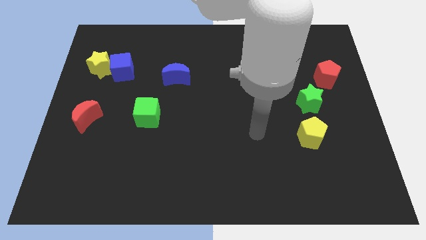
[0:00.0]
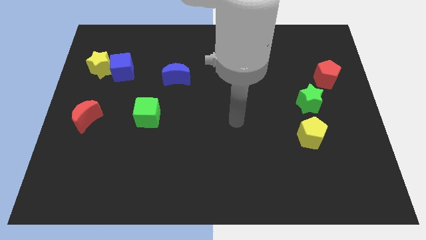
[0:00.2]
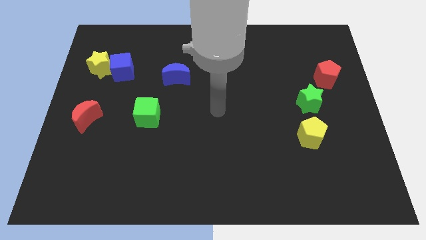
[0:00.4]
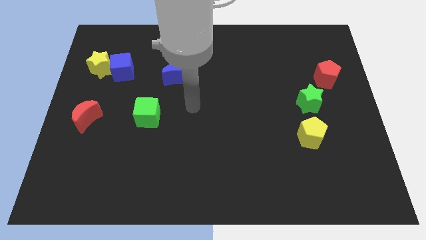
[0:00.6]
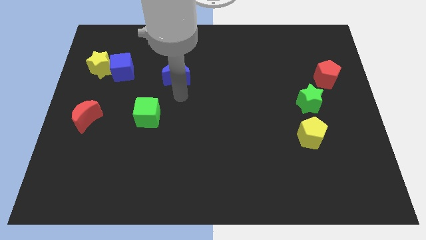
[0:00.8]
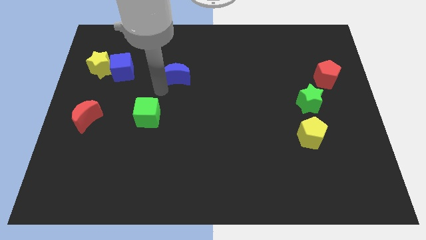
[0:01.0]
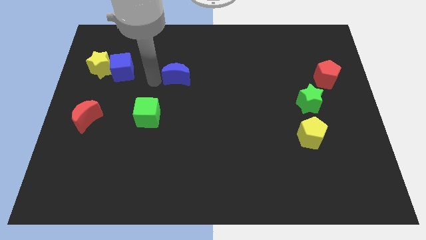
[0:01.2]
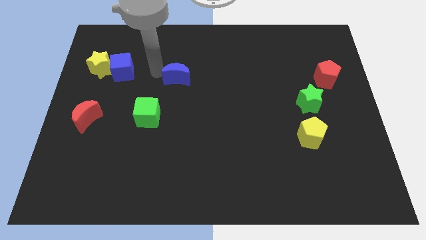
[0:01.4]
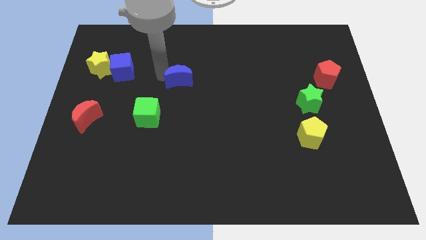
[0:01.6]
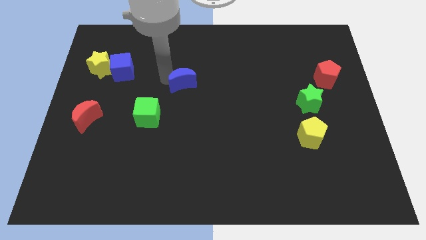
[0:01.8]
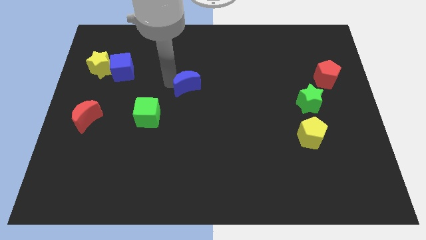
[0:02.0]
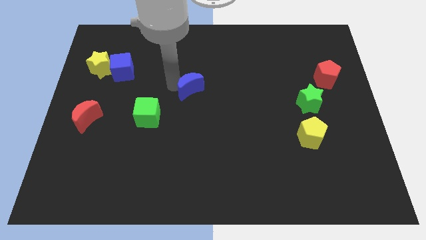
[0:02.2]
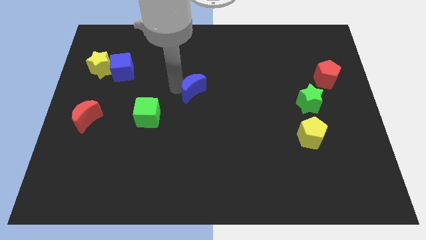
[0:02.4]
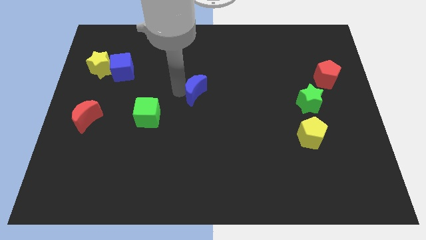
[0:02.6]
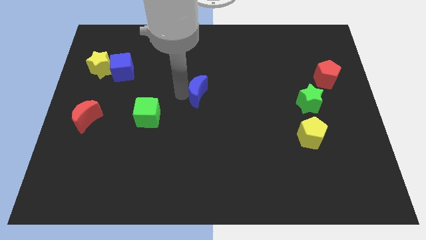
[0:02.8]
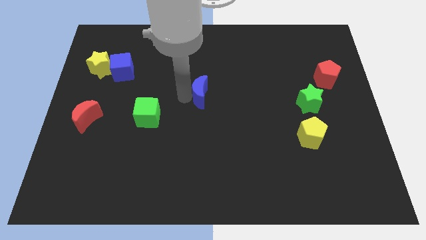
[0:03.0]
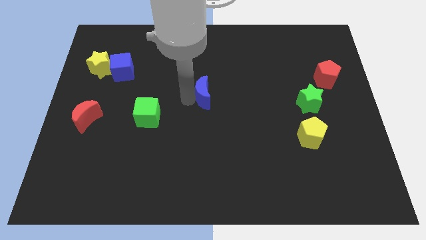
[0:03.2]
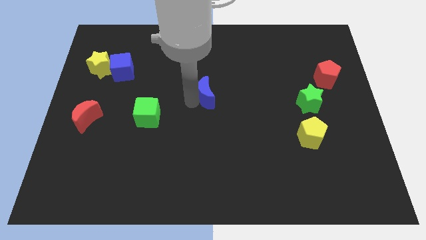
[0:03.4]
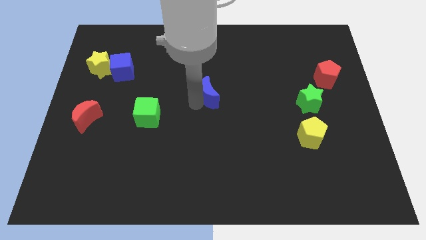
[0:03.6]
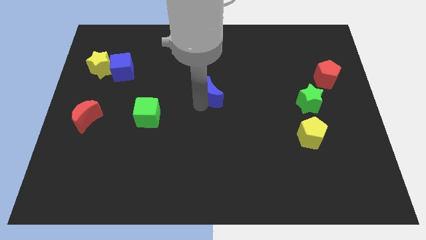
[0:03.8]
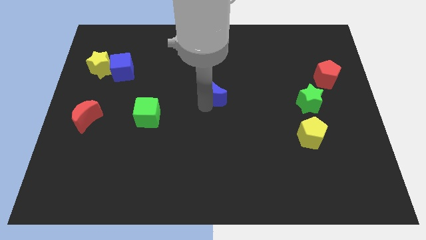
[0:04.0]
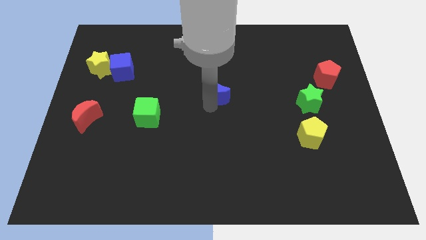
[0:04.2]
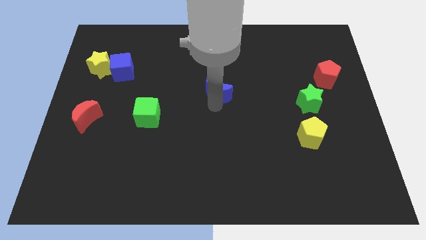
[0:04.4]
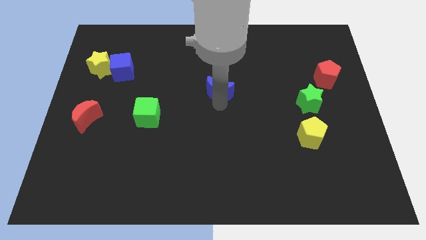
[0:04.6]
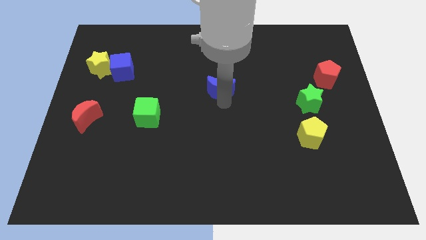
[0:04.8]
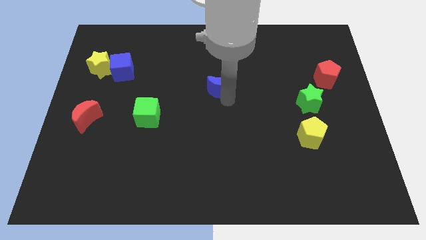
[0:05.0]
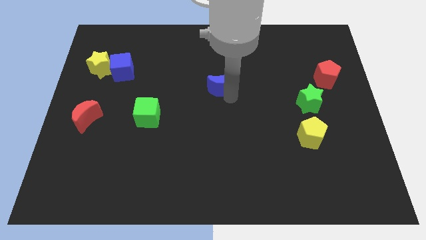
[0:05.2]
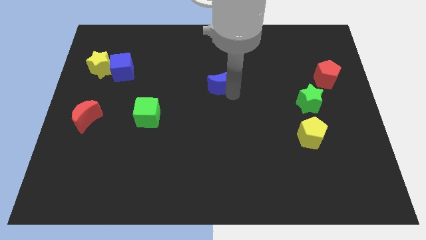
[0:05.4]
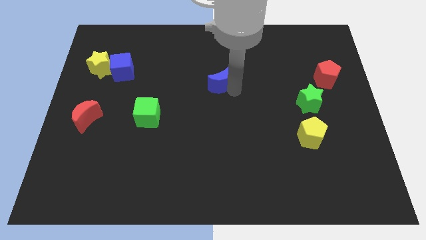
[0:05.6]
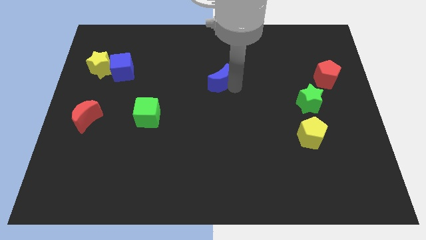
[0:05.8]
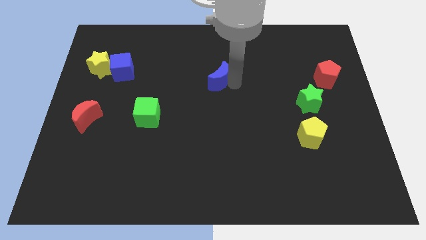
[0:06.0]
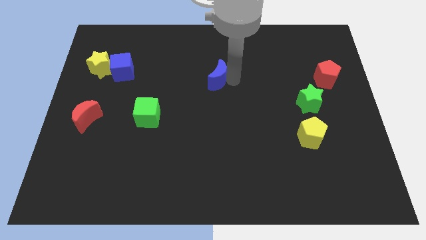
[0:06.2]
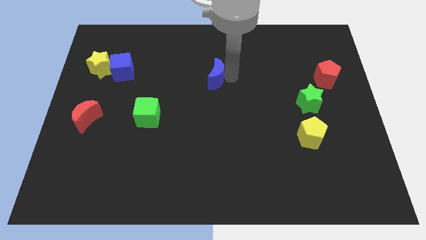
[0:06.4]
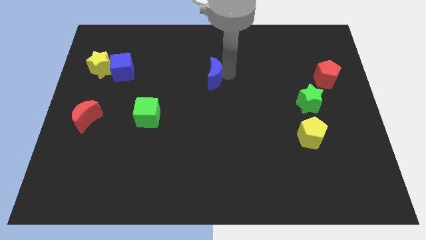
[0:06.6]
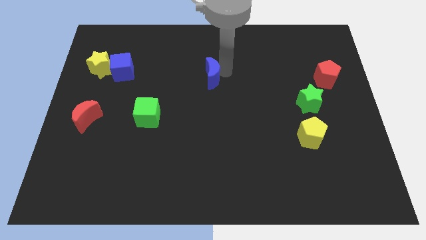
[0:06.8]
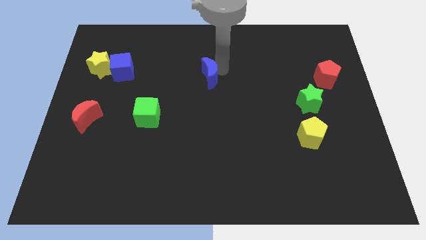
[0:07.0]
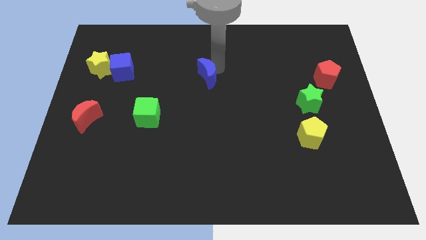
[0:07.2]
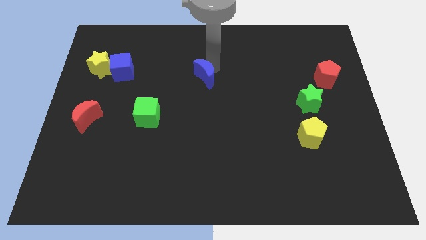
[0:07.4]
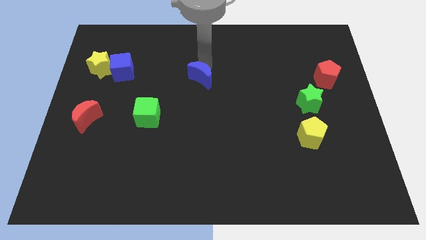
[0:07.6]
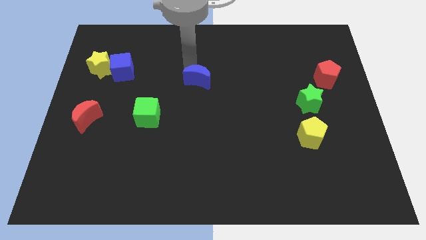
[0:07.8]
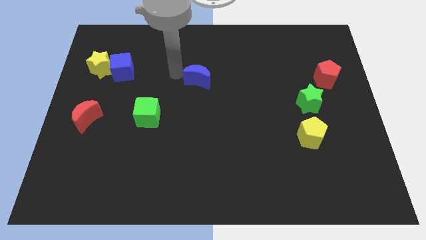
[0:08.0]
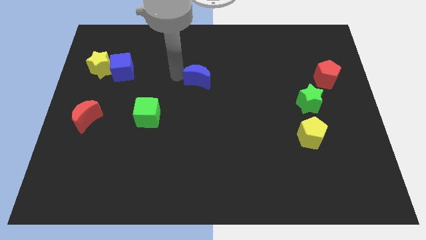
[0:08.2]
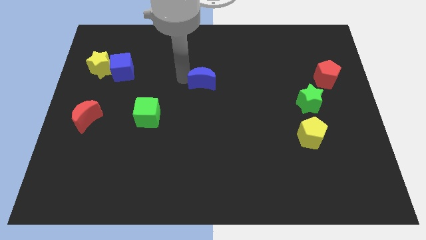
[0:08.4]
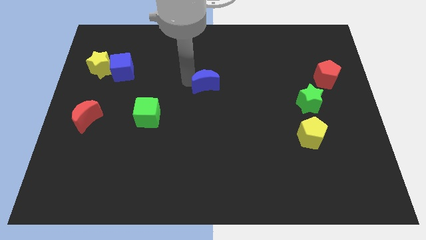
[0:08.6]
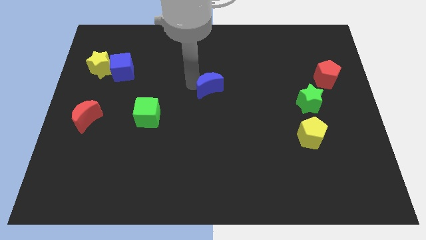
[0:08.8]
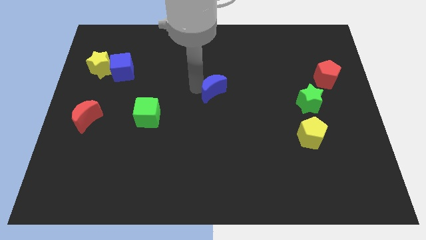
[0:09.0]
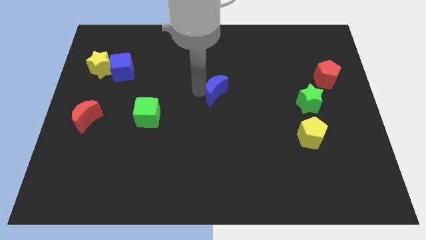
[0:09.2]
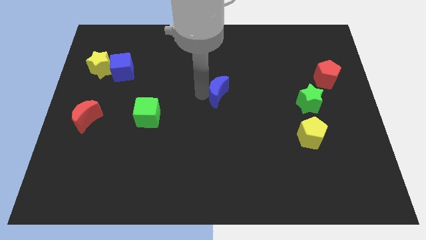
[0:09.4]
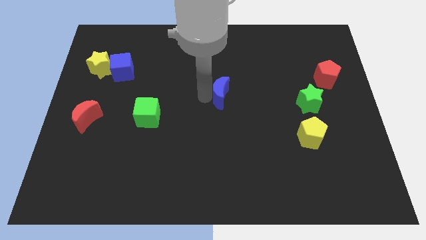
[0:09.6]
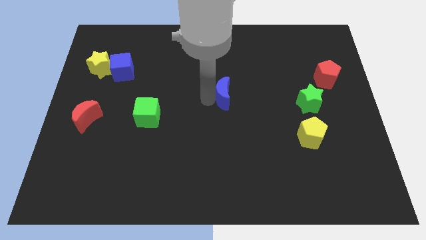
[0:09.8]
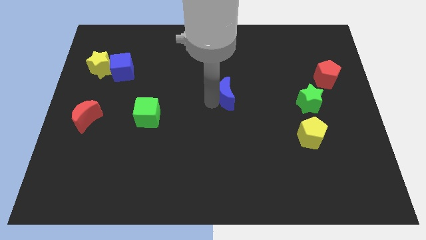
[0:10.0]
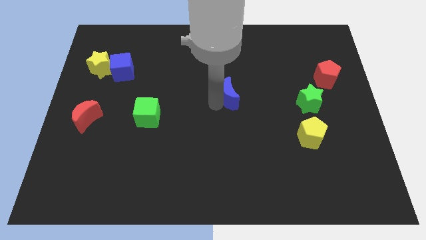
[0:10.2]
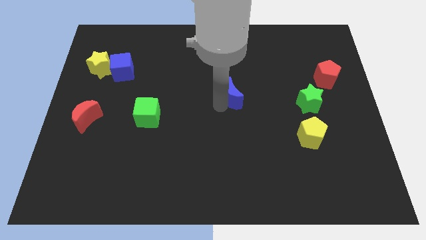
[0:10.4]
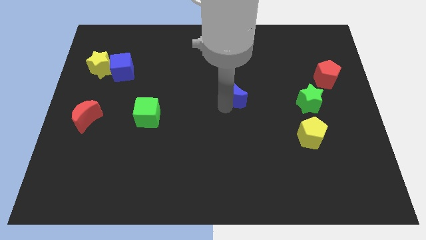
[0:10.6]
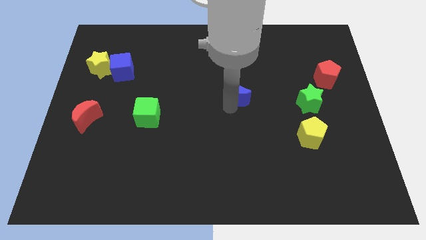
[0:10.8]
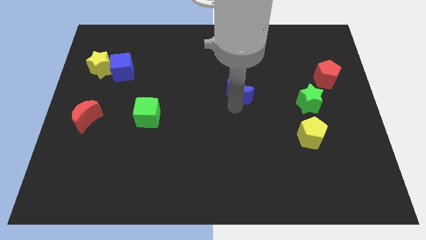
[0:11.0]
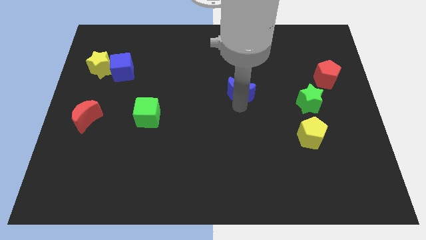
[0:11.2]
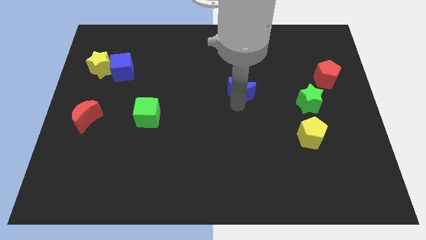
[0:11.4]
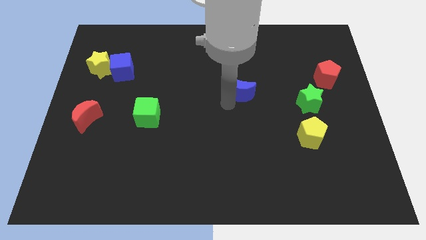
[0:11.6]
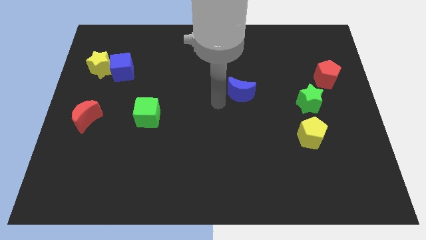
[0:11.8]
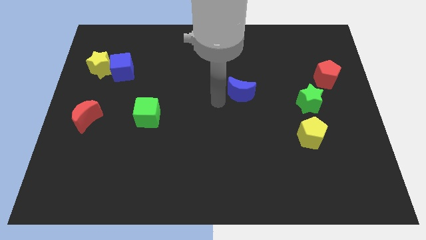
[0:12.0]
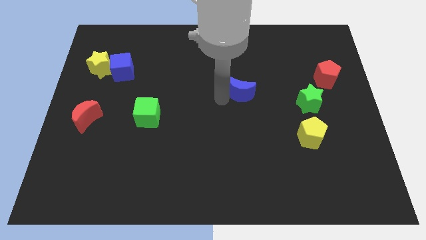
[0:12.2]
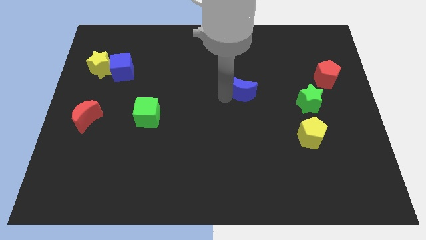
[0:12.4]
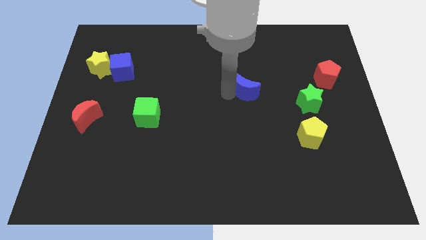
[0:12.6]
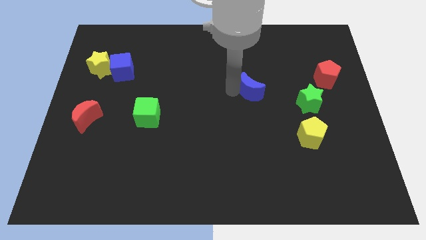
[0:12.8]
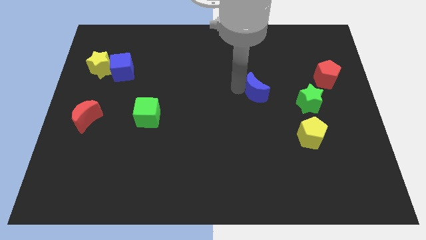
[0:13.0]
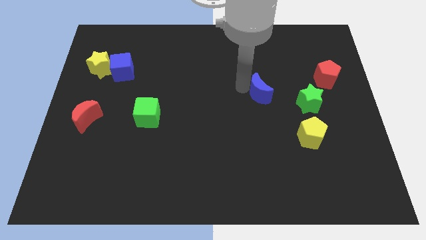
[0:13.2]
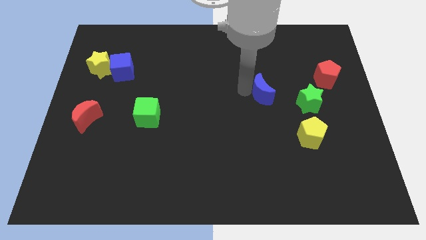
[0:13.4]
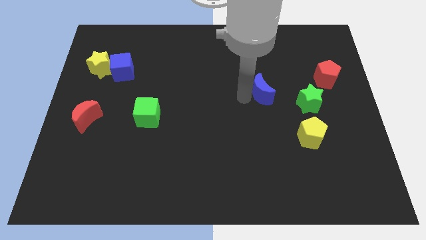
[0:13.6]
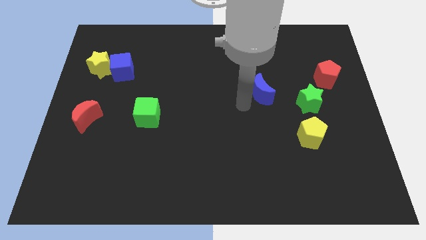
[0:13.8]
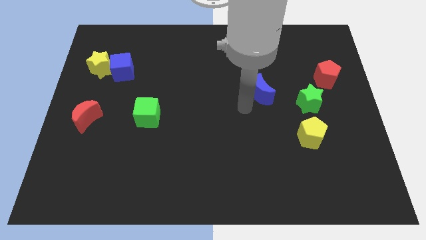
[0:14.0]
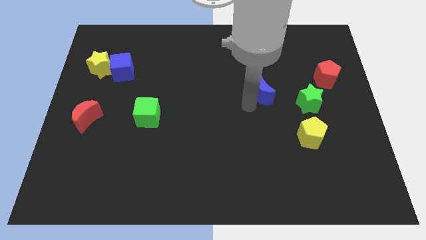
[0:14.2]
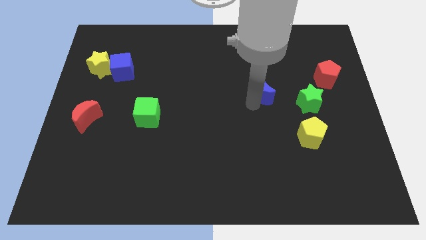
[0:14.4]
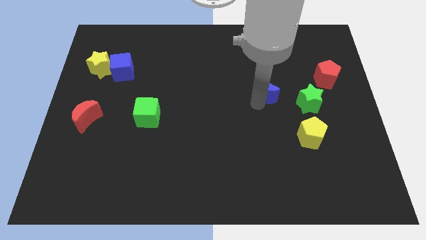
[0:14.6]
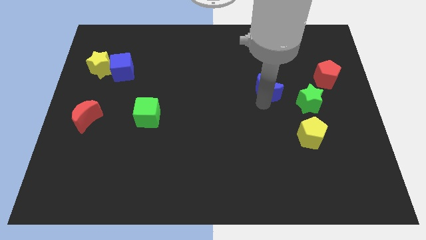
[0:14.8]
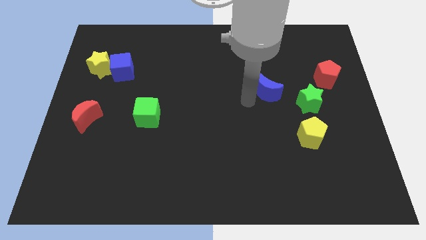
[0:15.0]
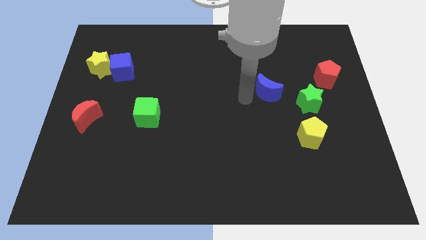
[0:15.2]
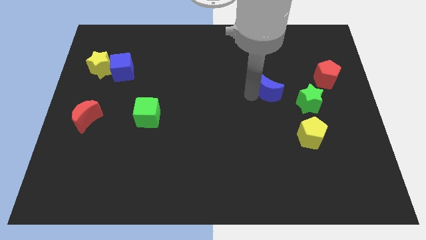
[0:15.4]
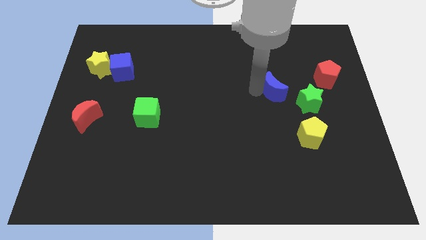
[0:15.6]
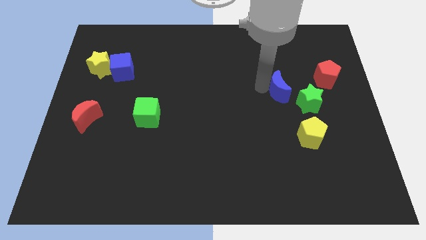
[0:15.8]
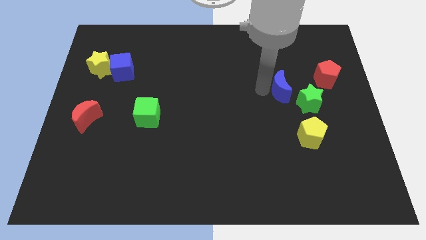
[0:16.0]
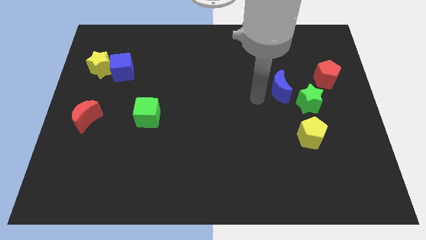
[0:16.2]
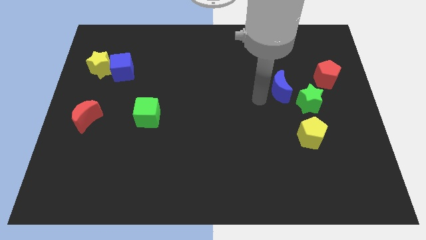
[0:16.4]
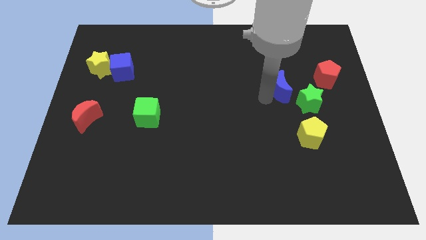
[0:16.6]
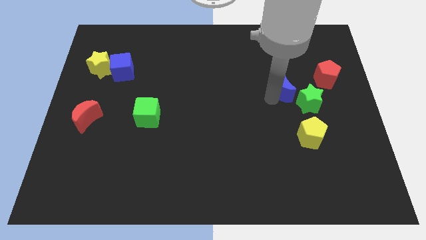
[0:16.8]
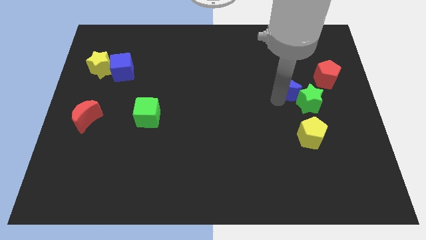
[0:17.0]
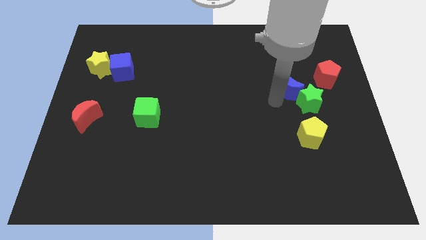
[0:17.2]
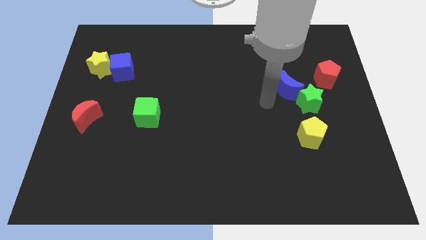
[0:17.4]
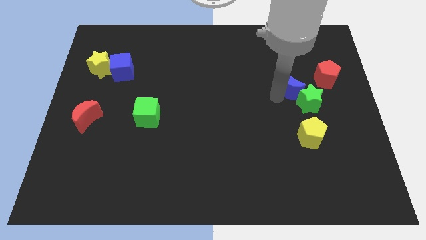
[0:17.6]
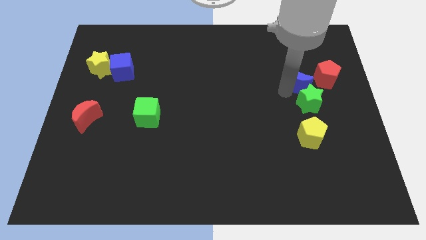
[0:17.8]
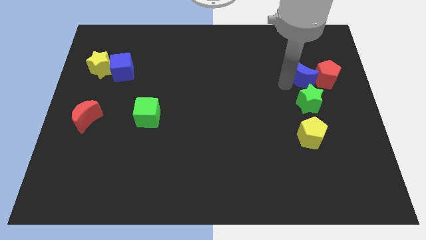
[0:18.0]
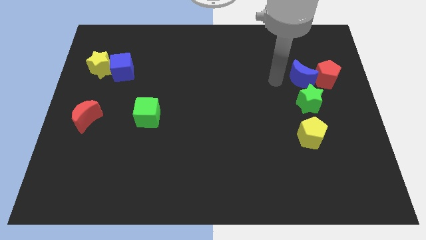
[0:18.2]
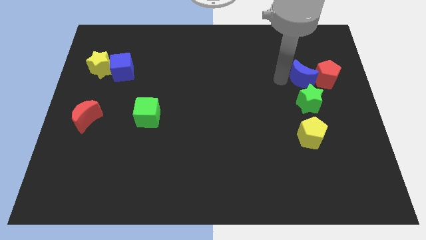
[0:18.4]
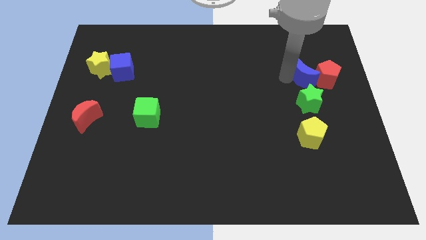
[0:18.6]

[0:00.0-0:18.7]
push the blue moon to the red pentagon
